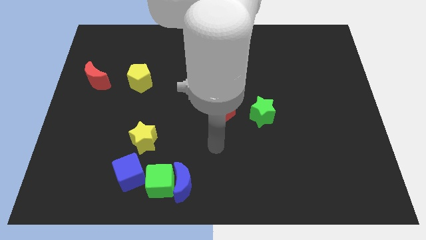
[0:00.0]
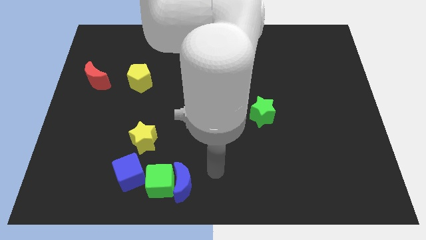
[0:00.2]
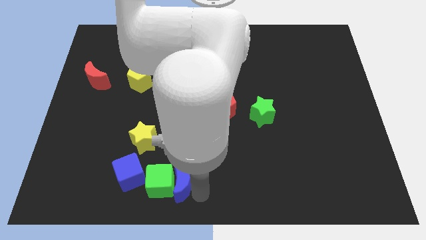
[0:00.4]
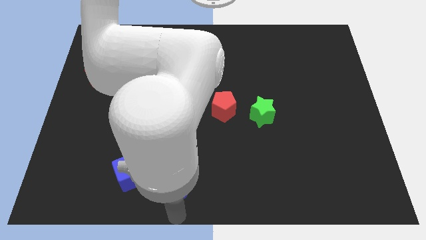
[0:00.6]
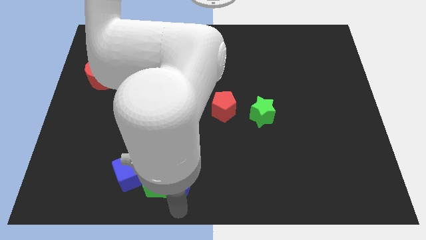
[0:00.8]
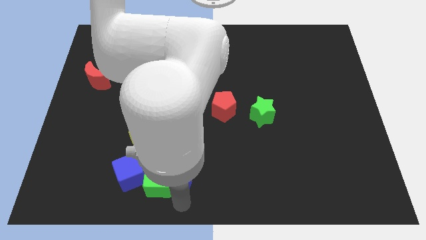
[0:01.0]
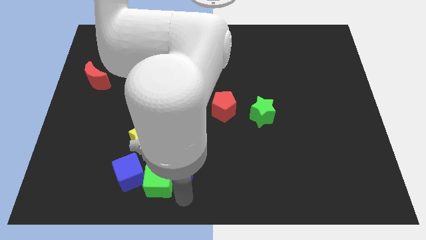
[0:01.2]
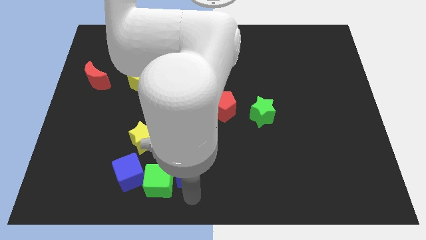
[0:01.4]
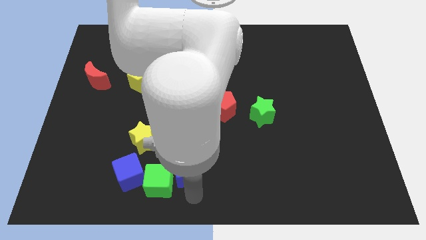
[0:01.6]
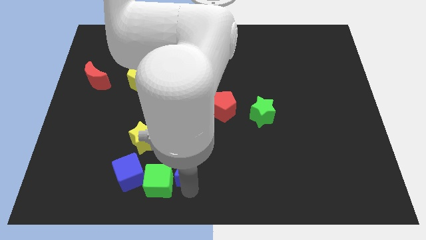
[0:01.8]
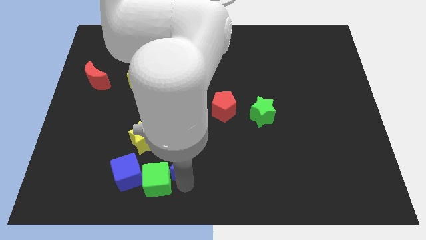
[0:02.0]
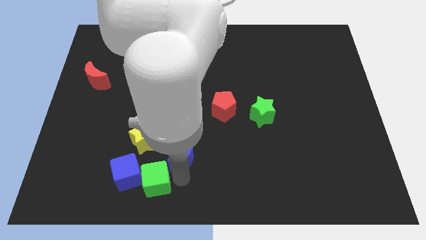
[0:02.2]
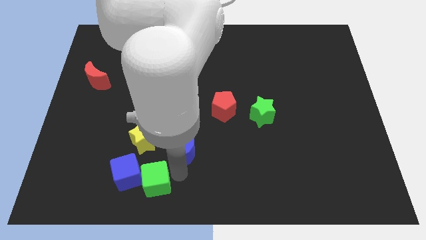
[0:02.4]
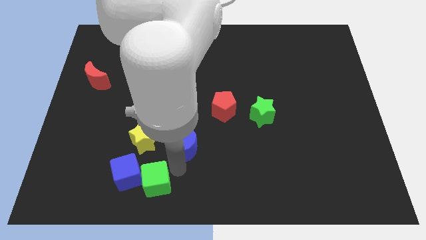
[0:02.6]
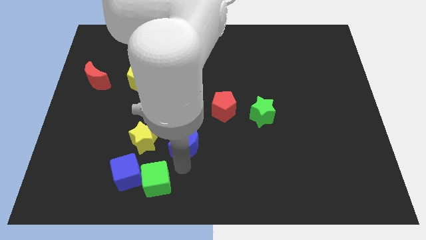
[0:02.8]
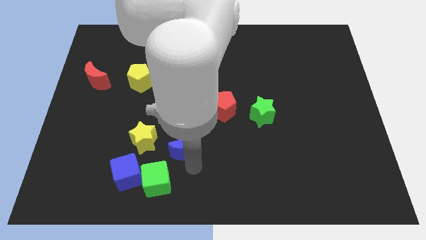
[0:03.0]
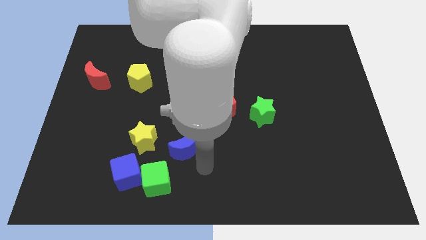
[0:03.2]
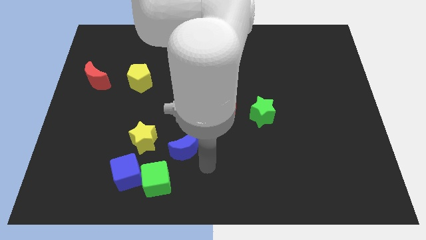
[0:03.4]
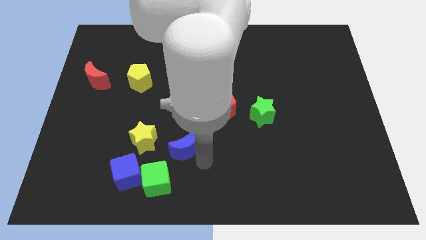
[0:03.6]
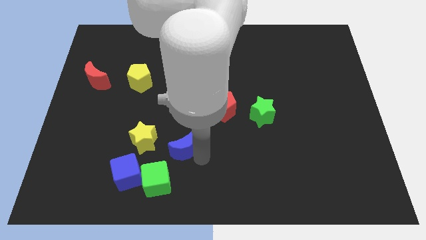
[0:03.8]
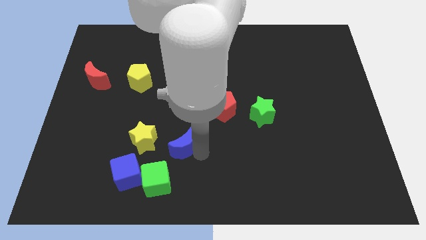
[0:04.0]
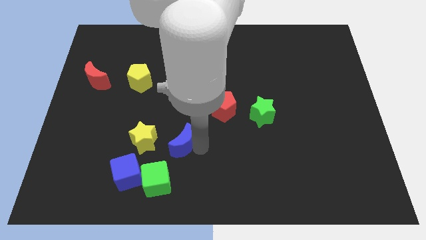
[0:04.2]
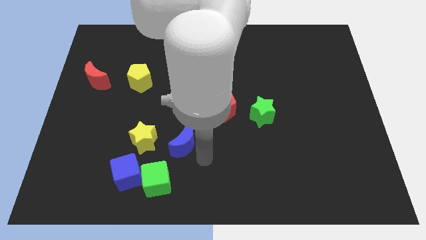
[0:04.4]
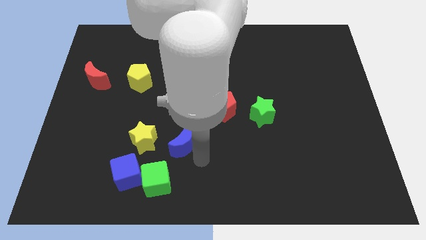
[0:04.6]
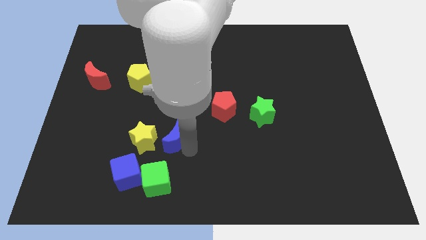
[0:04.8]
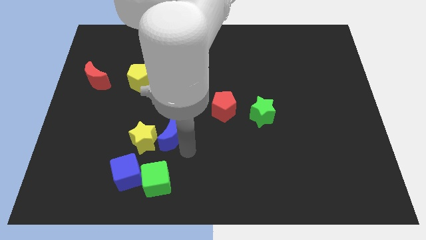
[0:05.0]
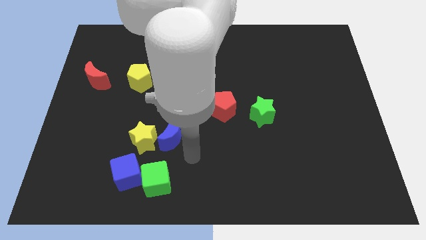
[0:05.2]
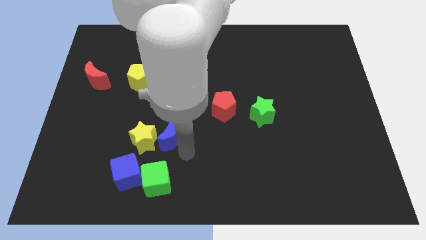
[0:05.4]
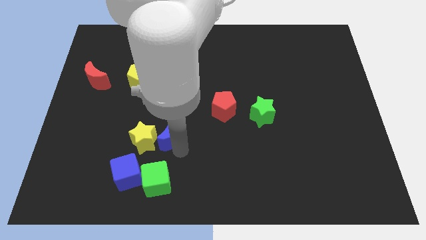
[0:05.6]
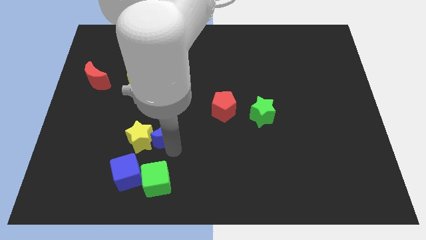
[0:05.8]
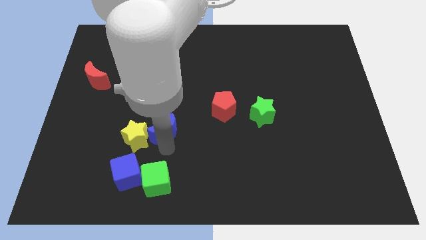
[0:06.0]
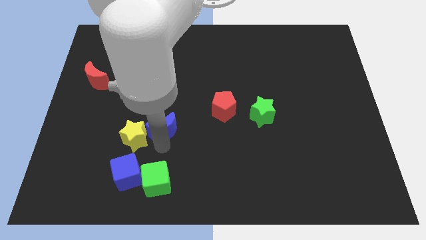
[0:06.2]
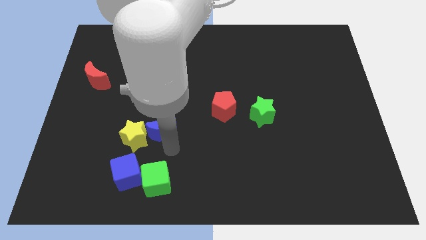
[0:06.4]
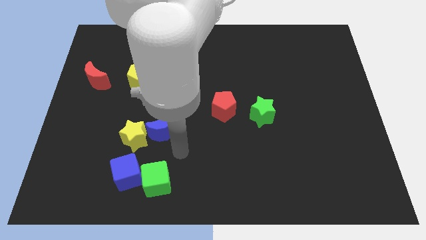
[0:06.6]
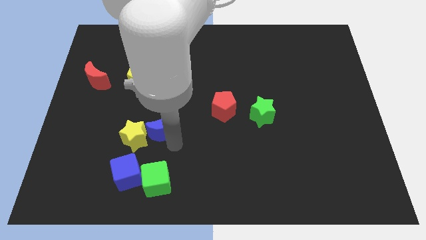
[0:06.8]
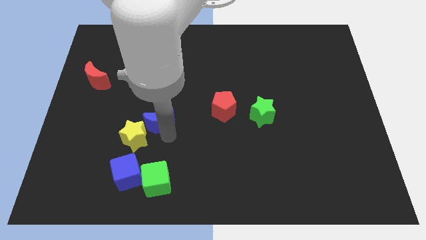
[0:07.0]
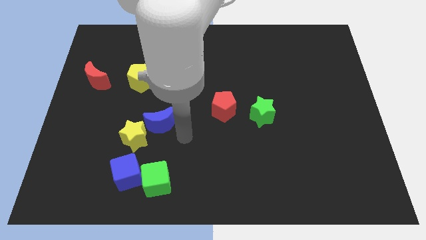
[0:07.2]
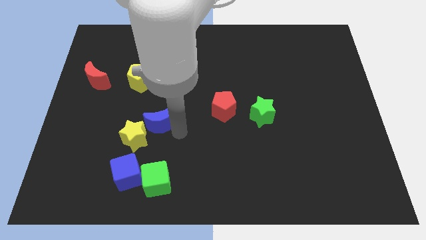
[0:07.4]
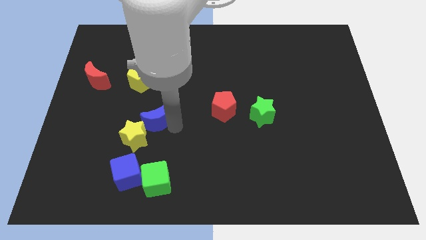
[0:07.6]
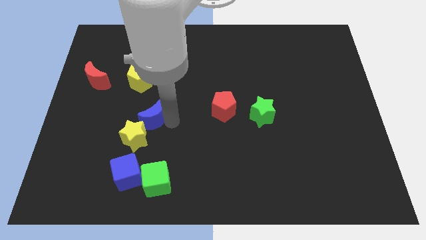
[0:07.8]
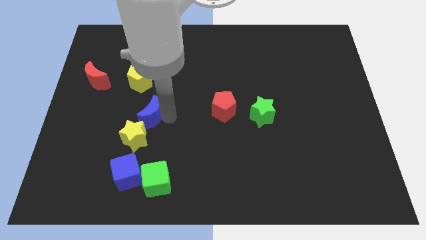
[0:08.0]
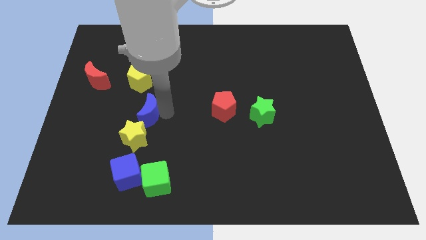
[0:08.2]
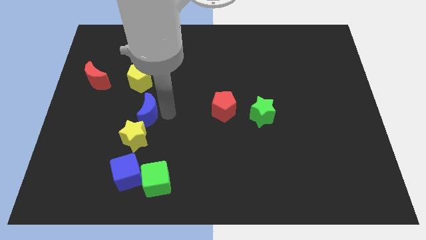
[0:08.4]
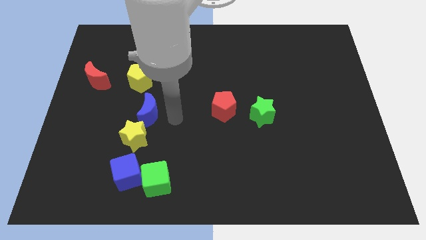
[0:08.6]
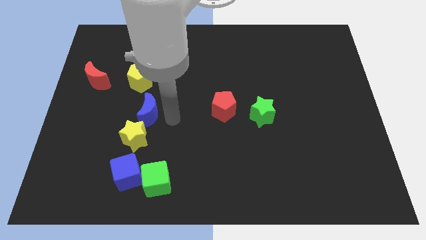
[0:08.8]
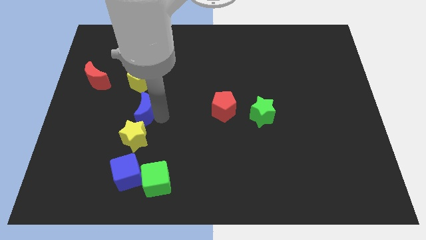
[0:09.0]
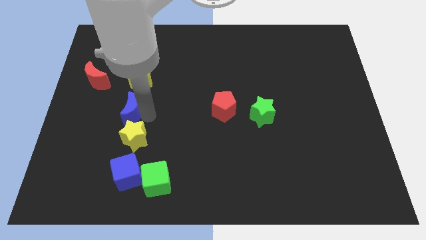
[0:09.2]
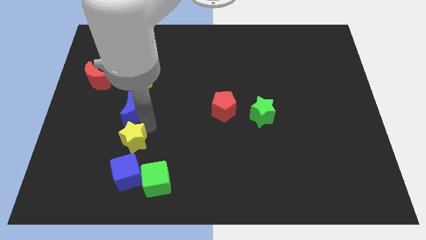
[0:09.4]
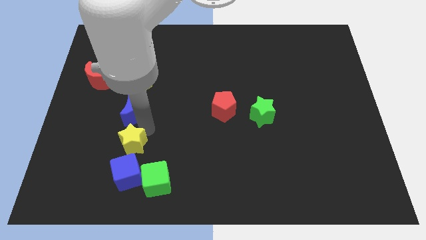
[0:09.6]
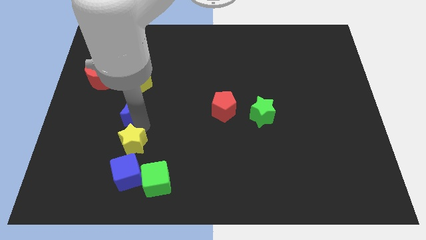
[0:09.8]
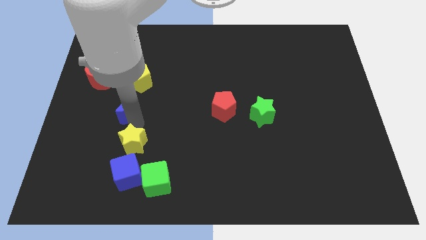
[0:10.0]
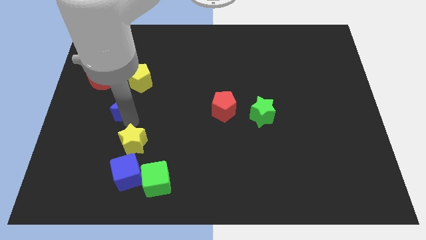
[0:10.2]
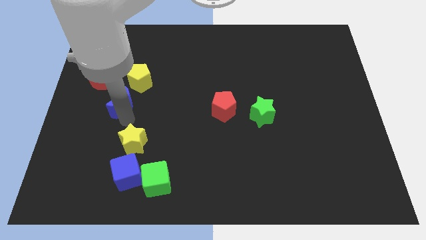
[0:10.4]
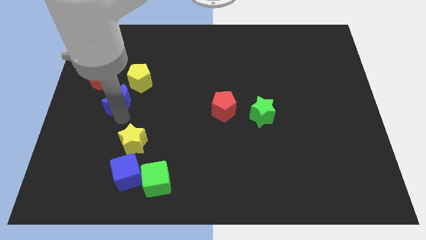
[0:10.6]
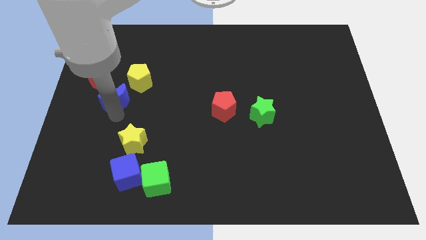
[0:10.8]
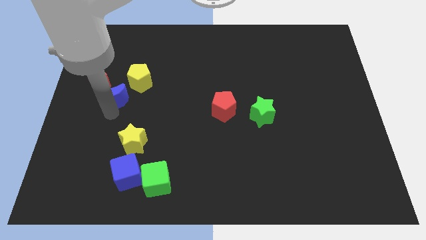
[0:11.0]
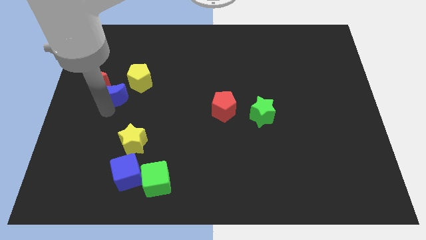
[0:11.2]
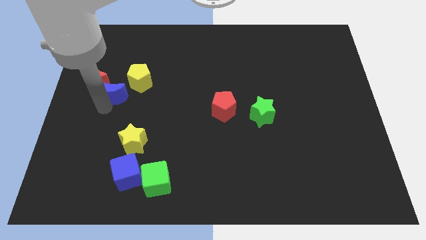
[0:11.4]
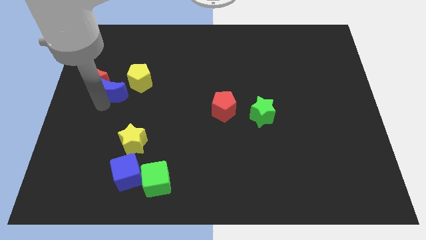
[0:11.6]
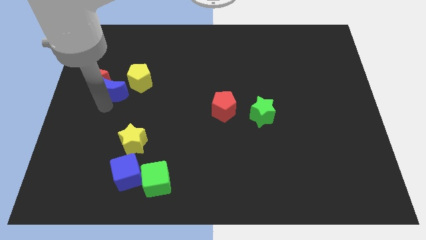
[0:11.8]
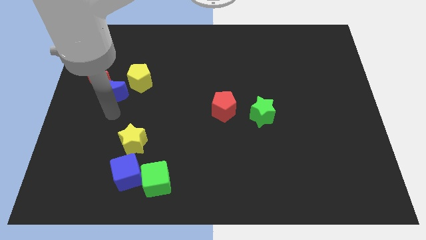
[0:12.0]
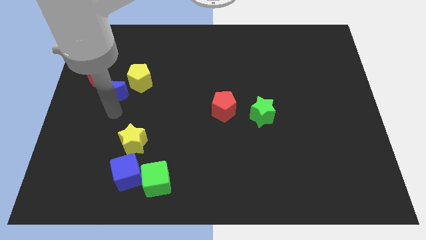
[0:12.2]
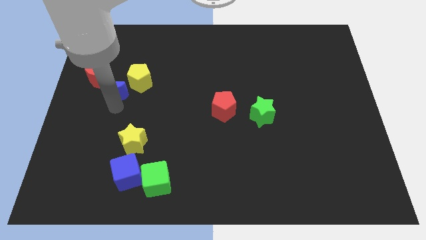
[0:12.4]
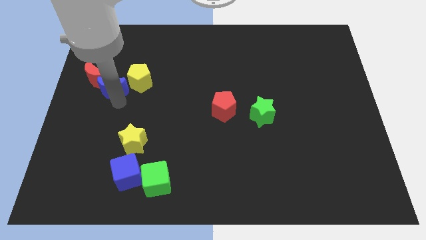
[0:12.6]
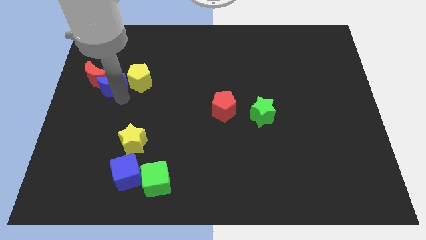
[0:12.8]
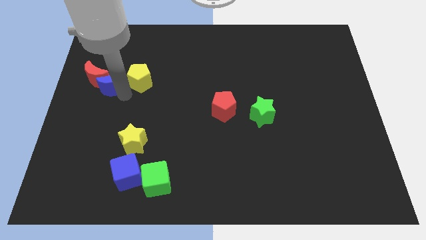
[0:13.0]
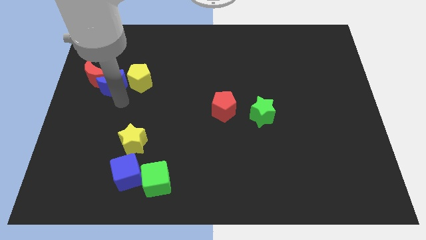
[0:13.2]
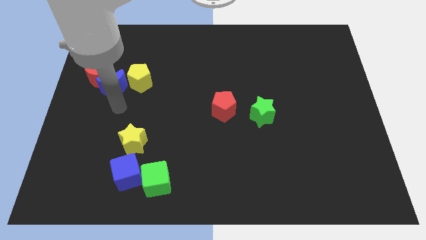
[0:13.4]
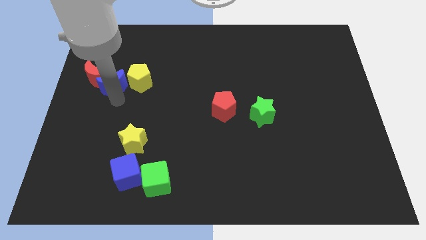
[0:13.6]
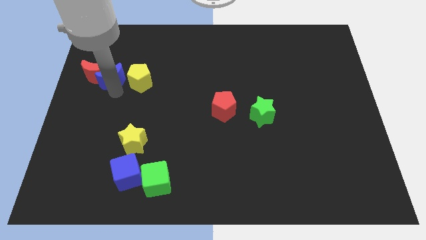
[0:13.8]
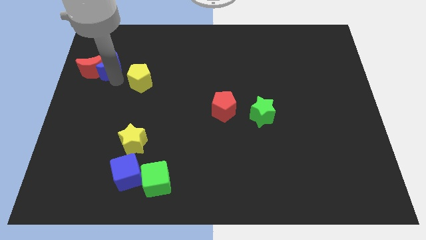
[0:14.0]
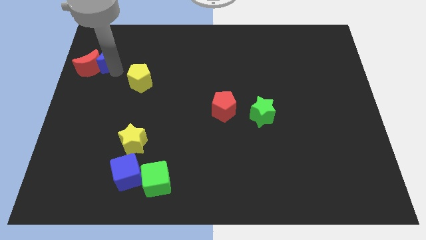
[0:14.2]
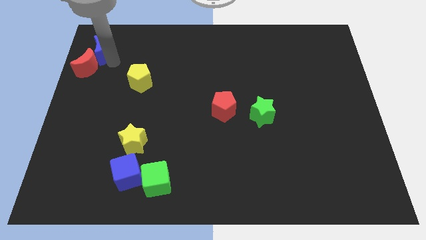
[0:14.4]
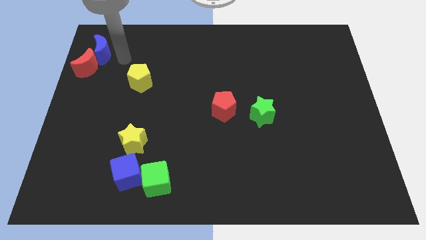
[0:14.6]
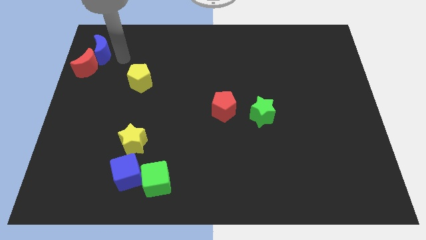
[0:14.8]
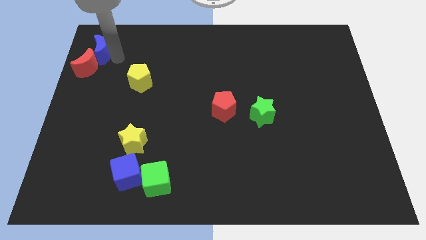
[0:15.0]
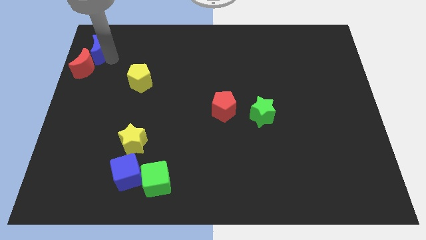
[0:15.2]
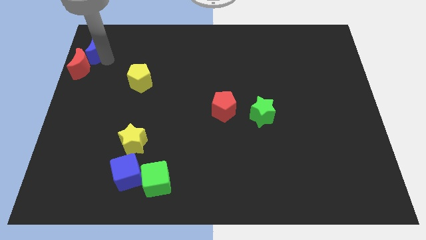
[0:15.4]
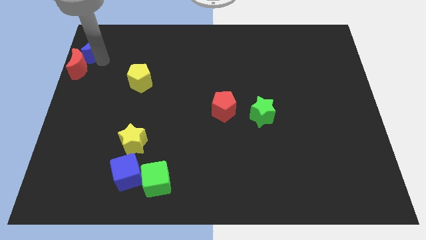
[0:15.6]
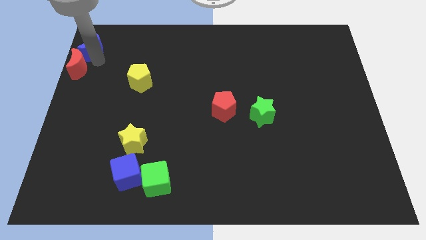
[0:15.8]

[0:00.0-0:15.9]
push the blue moon to the top left of the board
